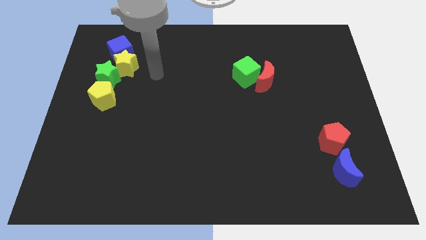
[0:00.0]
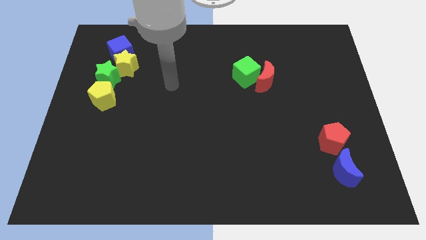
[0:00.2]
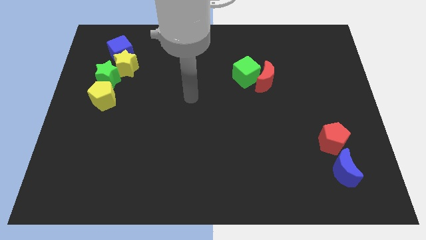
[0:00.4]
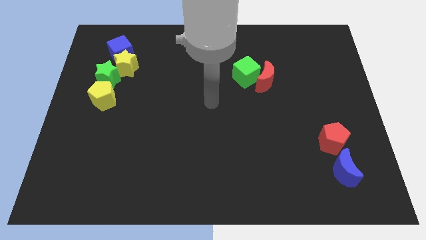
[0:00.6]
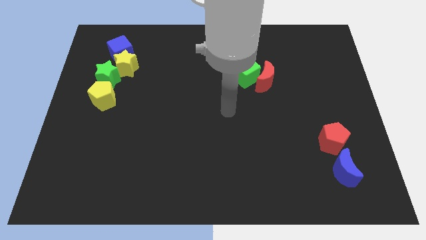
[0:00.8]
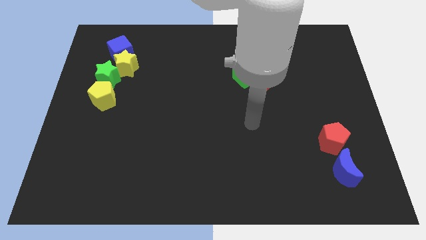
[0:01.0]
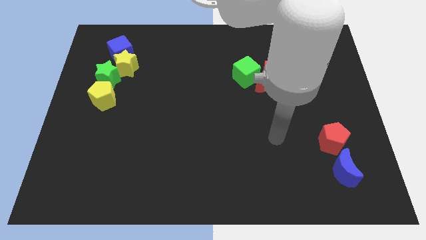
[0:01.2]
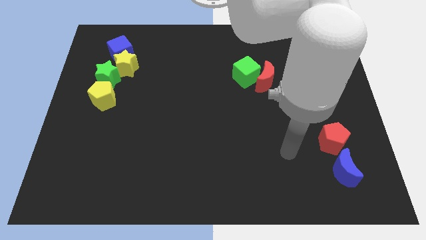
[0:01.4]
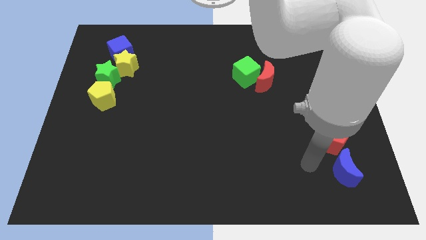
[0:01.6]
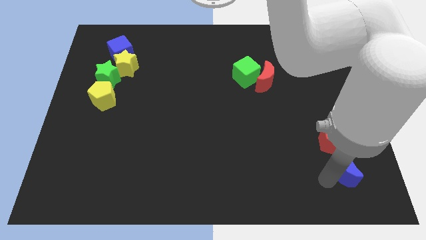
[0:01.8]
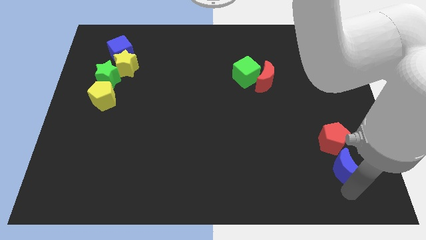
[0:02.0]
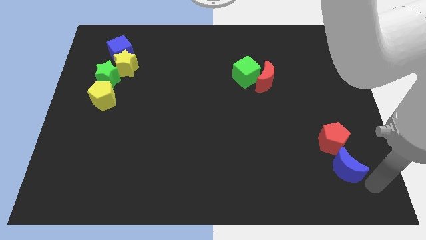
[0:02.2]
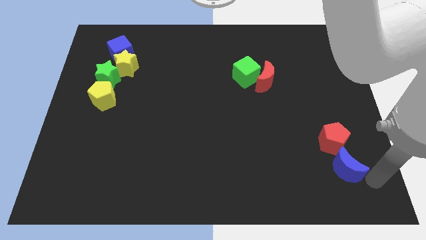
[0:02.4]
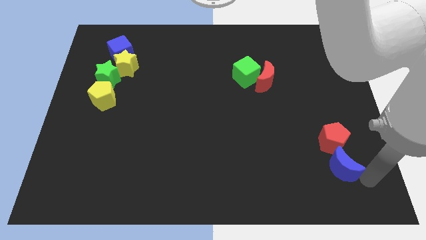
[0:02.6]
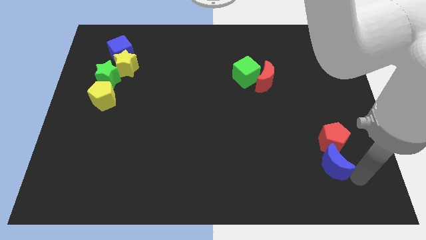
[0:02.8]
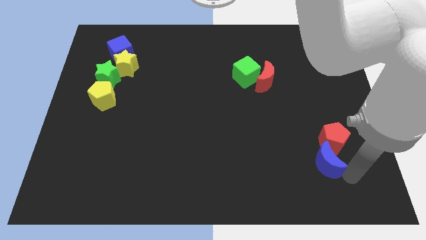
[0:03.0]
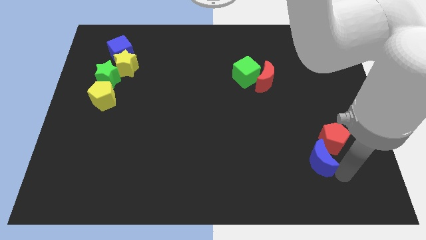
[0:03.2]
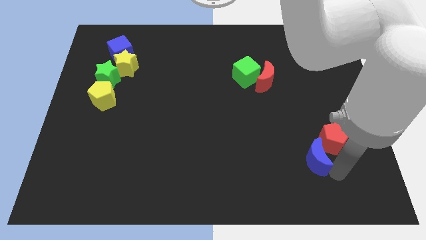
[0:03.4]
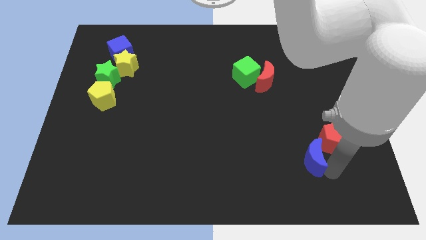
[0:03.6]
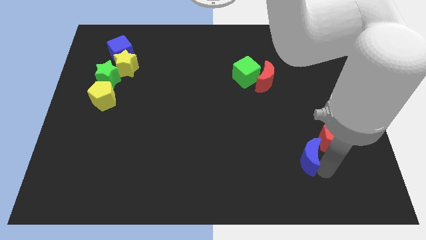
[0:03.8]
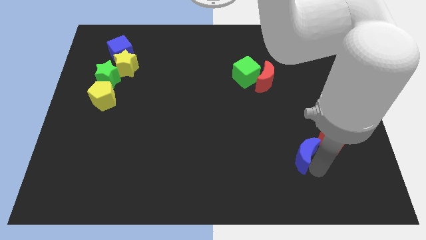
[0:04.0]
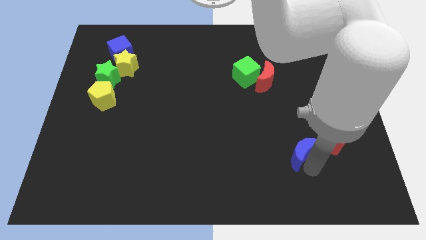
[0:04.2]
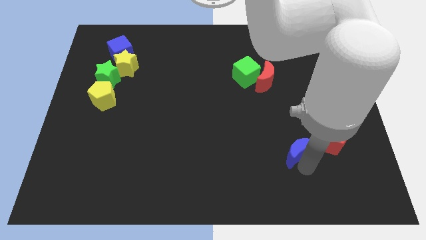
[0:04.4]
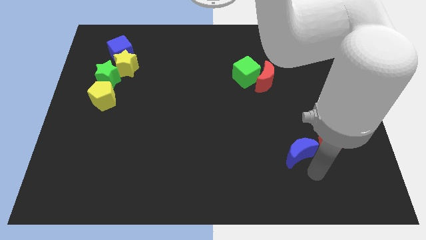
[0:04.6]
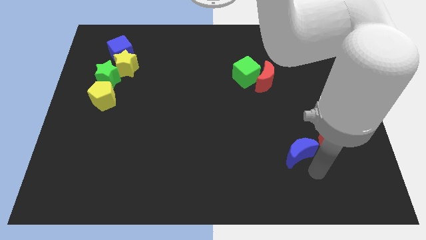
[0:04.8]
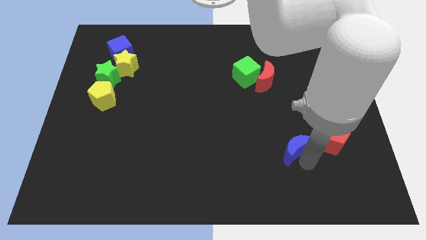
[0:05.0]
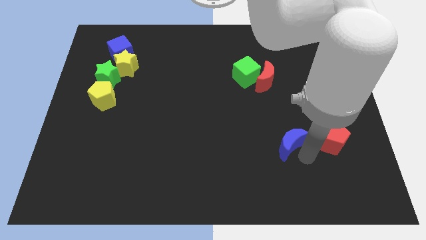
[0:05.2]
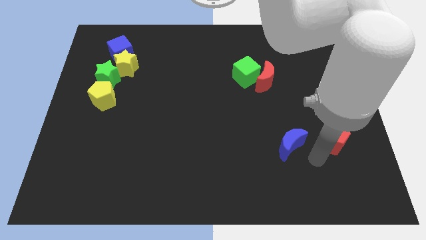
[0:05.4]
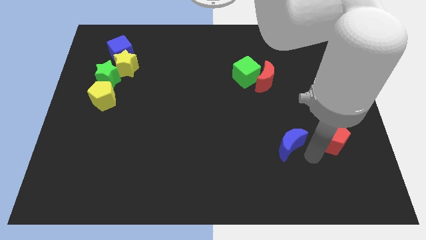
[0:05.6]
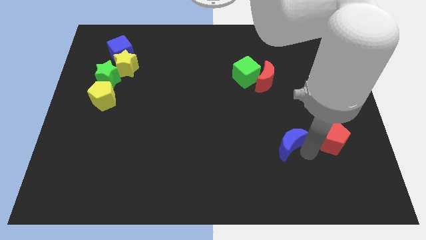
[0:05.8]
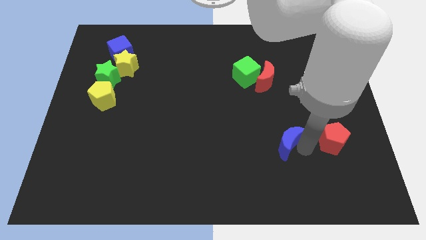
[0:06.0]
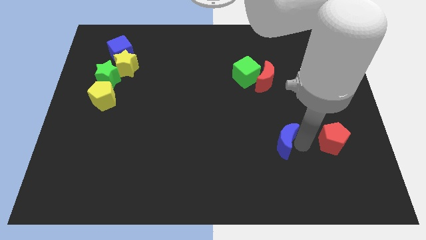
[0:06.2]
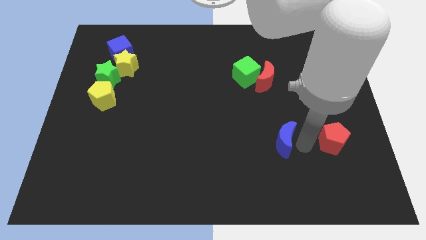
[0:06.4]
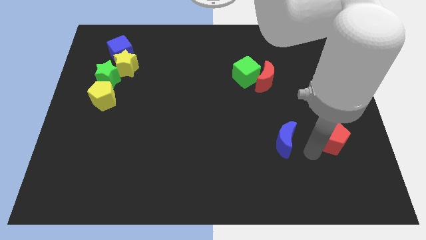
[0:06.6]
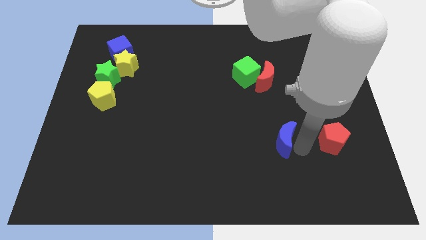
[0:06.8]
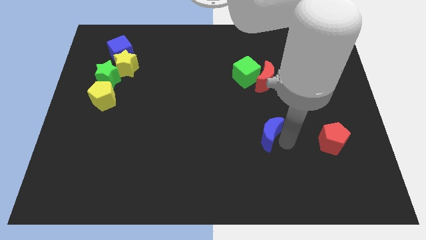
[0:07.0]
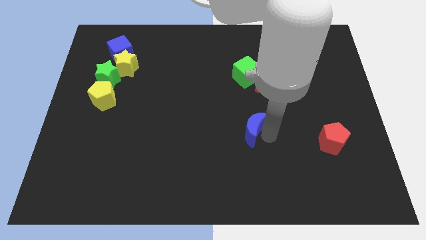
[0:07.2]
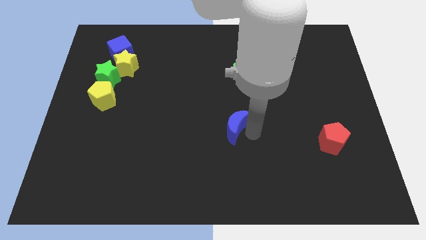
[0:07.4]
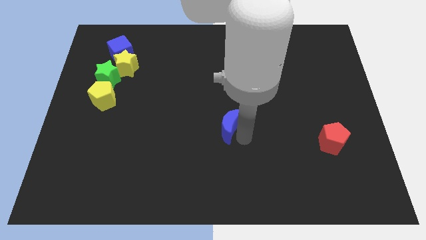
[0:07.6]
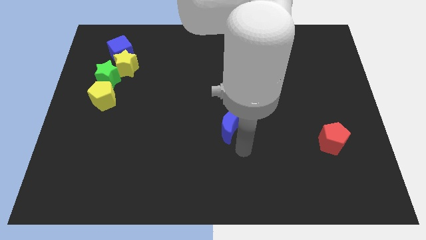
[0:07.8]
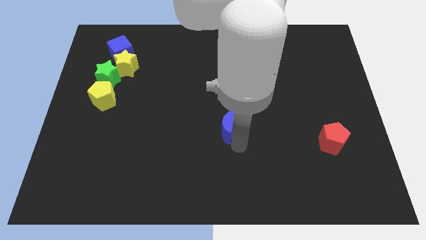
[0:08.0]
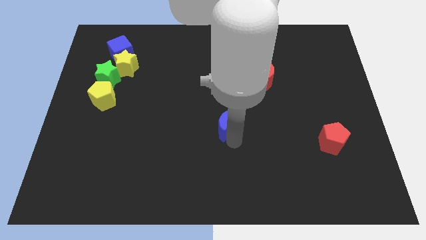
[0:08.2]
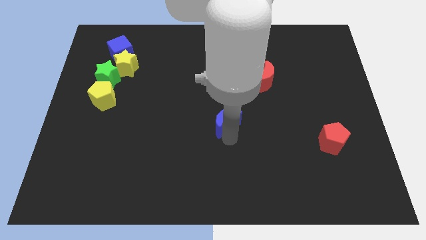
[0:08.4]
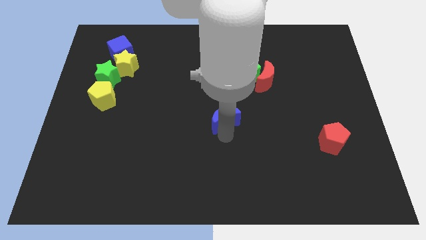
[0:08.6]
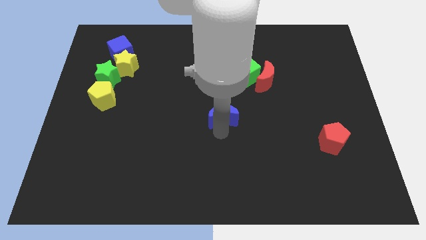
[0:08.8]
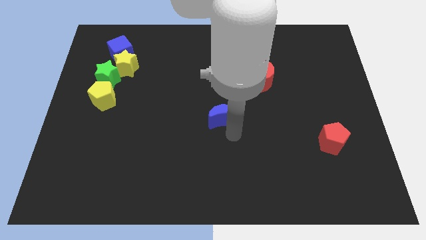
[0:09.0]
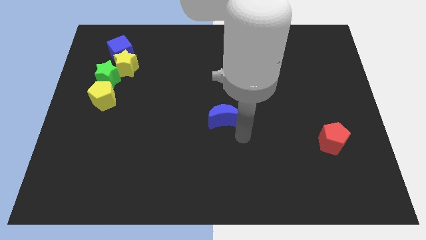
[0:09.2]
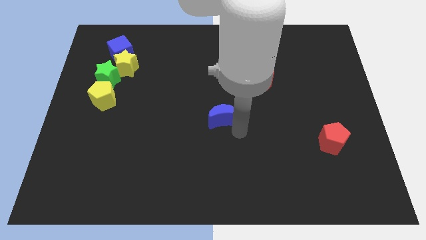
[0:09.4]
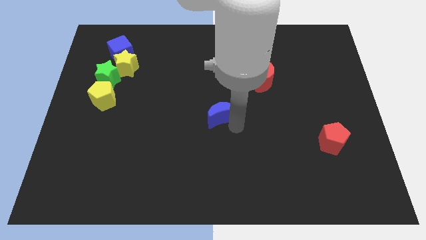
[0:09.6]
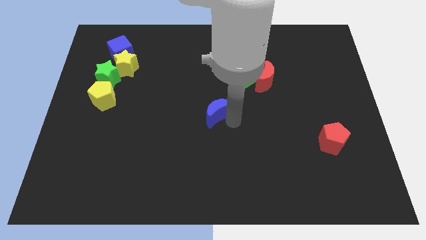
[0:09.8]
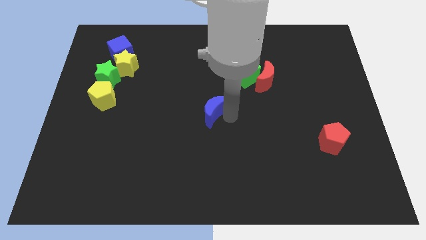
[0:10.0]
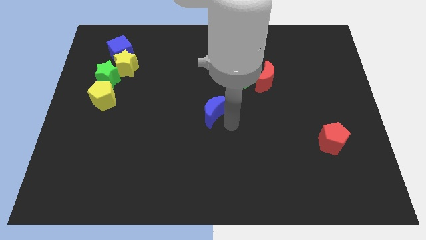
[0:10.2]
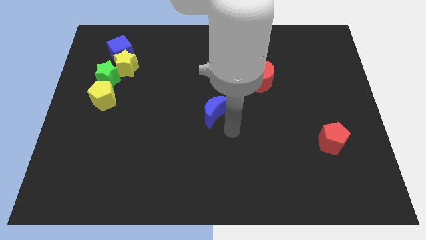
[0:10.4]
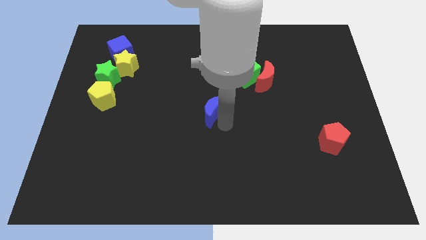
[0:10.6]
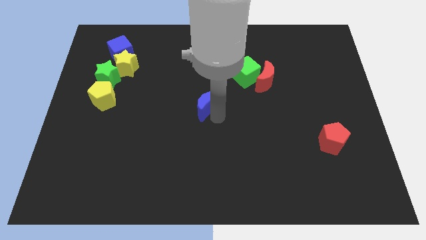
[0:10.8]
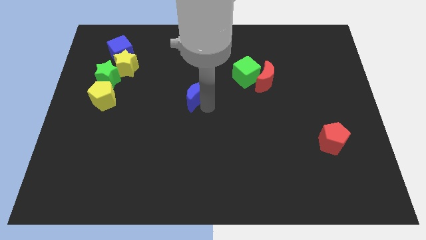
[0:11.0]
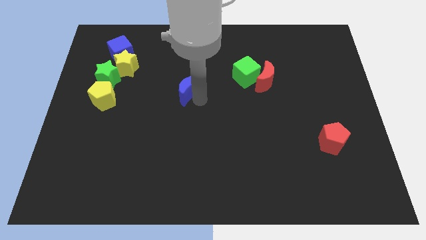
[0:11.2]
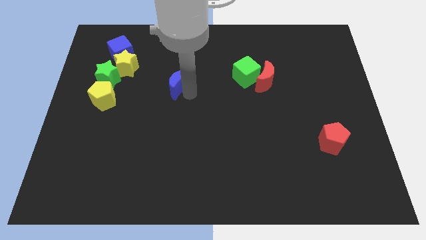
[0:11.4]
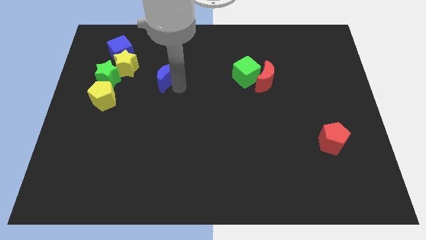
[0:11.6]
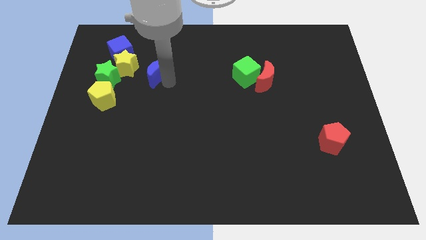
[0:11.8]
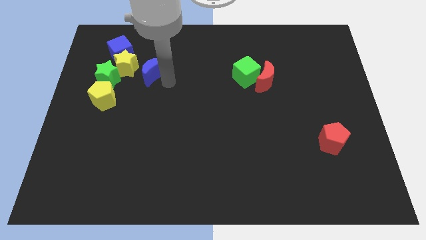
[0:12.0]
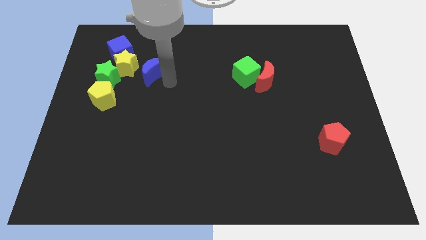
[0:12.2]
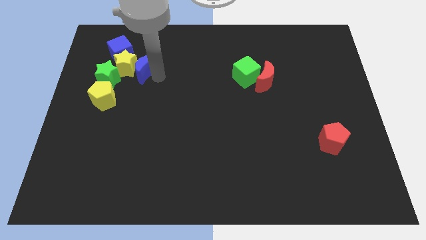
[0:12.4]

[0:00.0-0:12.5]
move the blue moon diagonally up and to the right of the green star

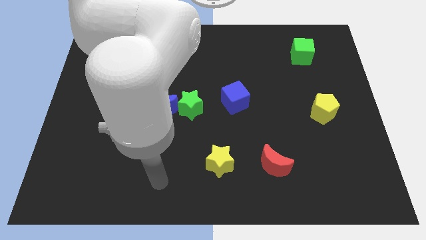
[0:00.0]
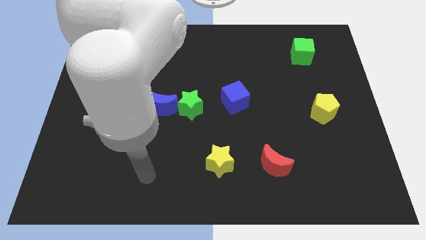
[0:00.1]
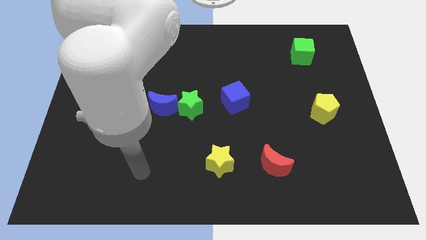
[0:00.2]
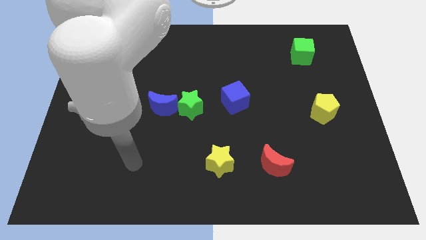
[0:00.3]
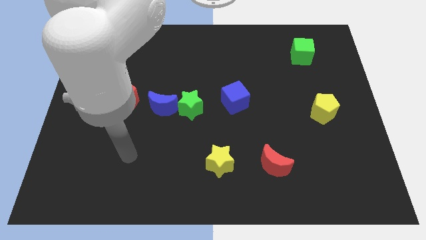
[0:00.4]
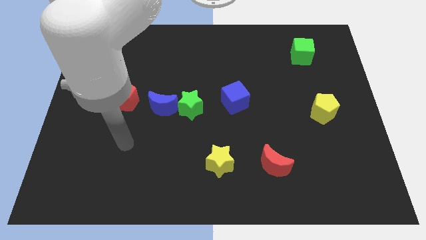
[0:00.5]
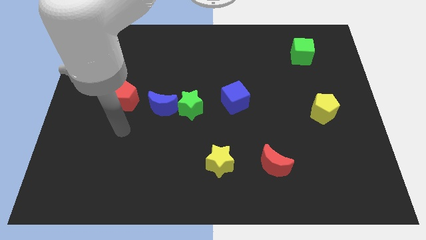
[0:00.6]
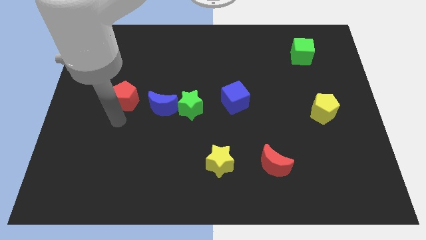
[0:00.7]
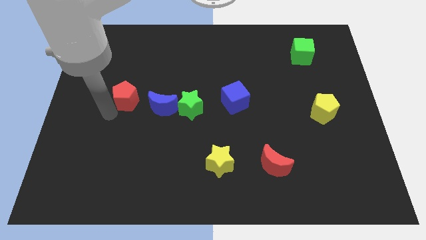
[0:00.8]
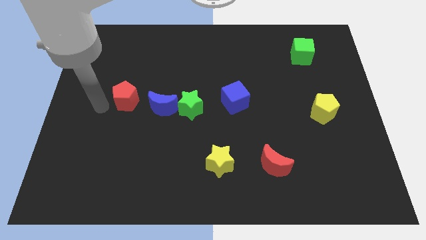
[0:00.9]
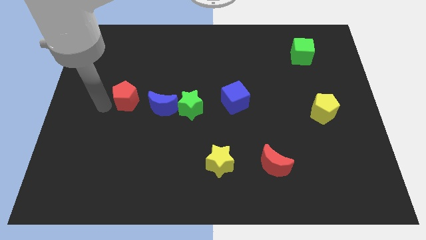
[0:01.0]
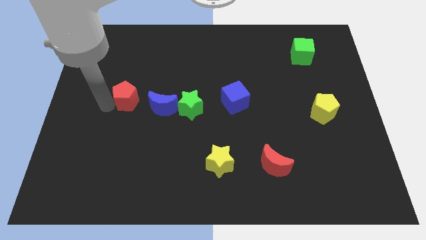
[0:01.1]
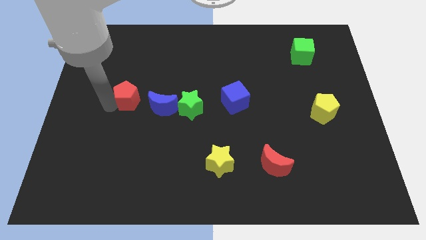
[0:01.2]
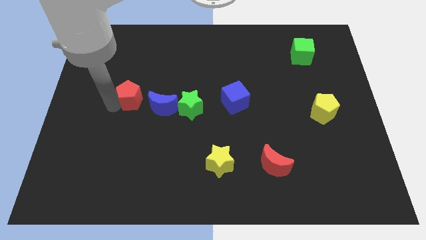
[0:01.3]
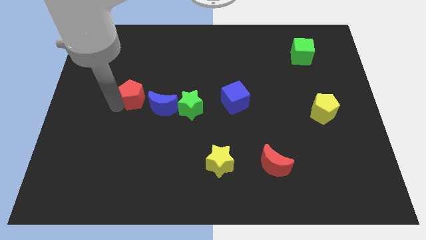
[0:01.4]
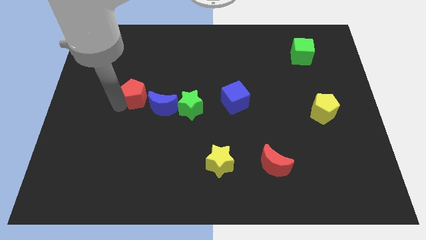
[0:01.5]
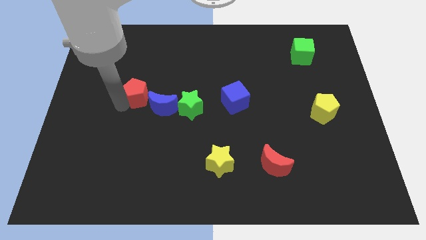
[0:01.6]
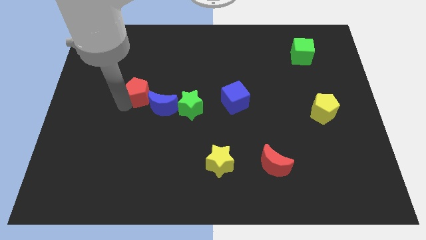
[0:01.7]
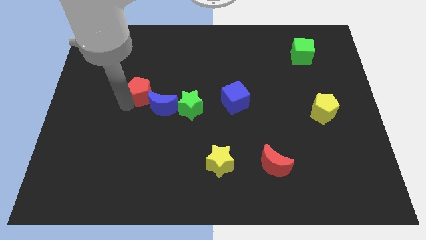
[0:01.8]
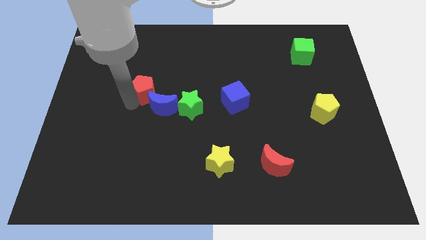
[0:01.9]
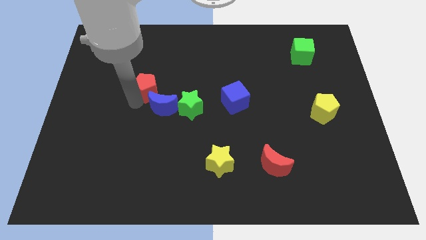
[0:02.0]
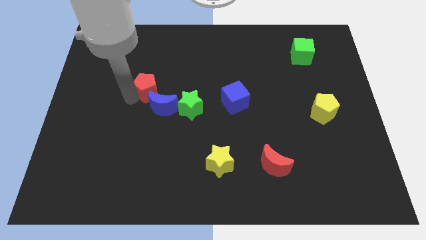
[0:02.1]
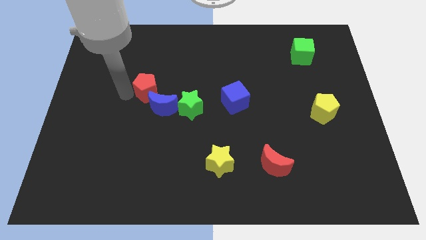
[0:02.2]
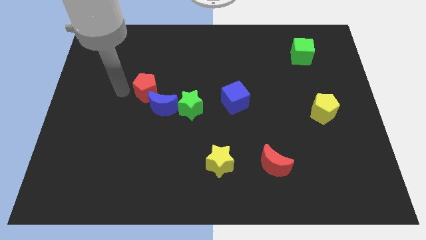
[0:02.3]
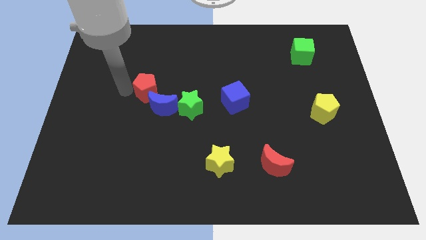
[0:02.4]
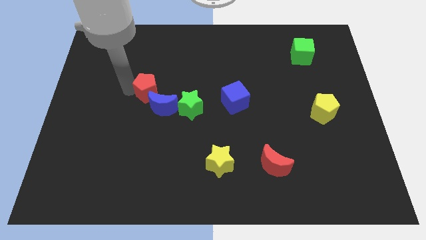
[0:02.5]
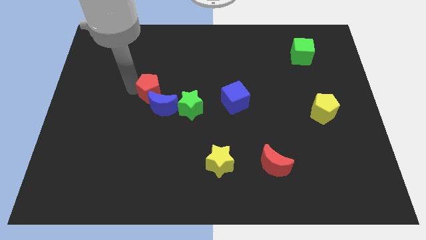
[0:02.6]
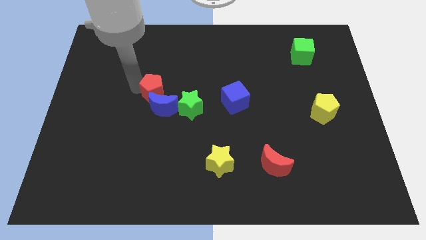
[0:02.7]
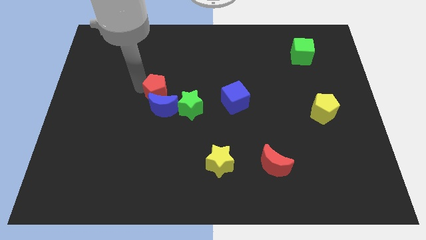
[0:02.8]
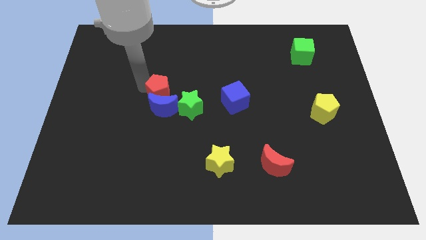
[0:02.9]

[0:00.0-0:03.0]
slide the red pentagon to the top right side of the blue moon
